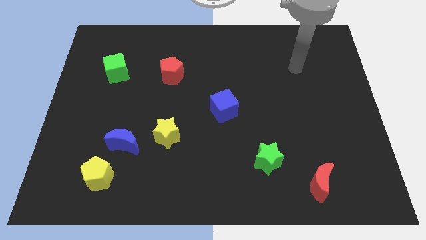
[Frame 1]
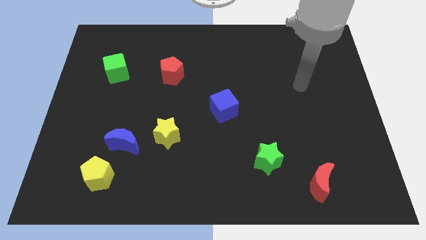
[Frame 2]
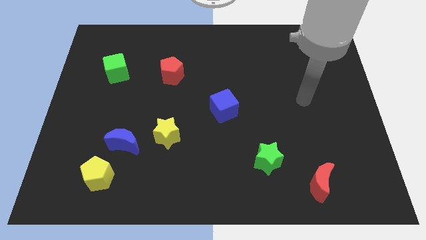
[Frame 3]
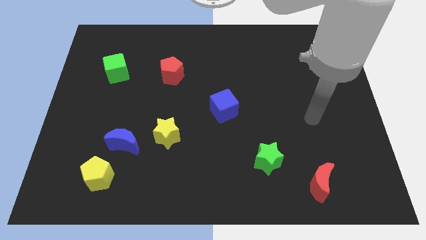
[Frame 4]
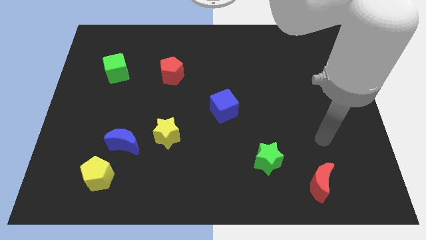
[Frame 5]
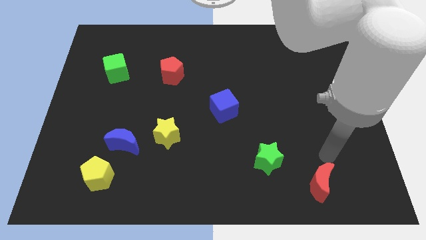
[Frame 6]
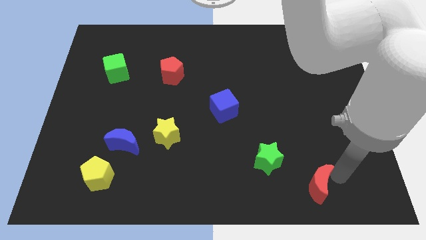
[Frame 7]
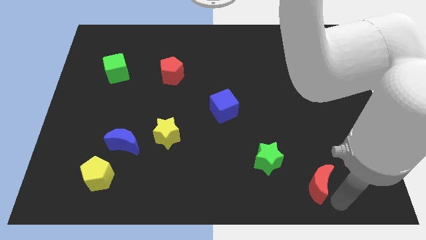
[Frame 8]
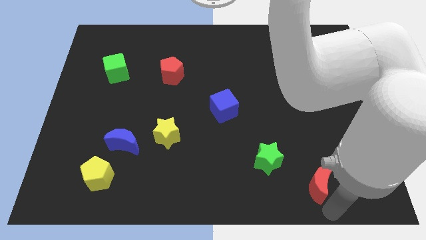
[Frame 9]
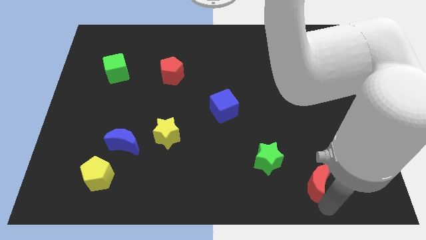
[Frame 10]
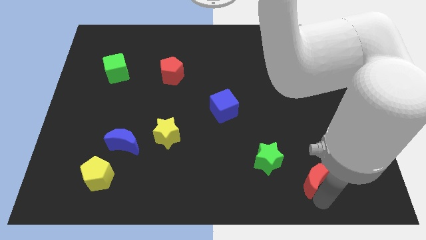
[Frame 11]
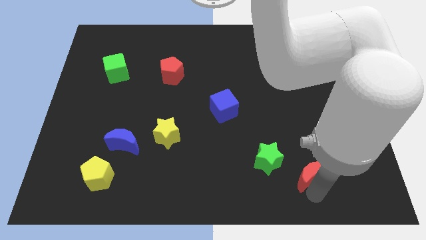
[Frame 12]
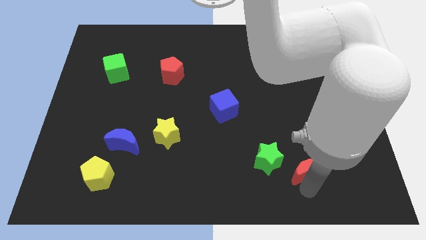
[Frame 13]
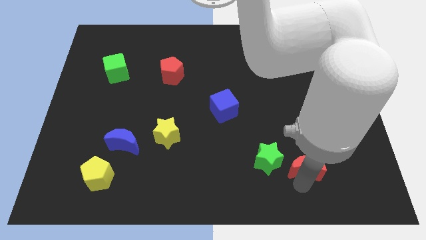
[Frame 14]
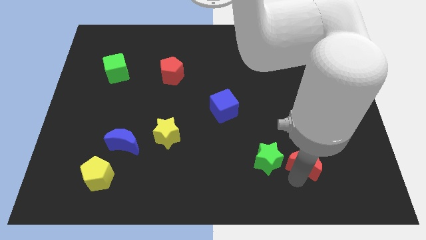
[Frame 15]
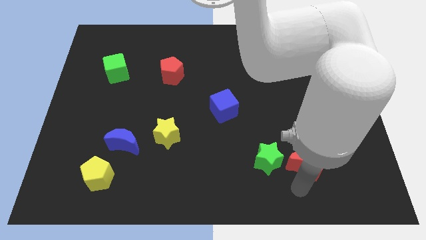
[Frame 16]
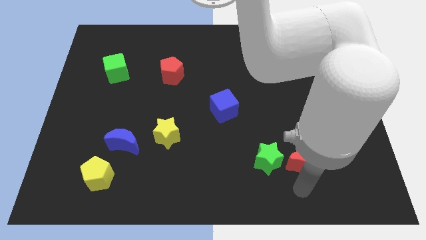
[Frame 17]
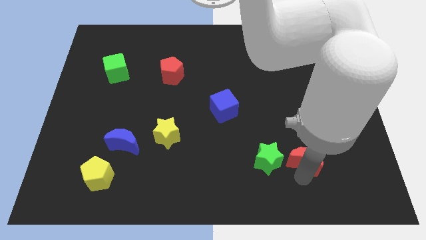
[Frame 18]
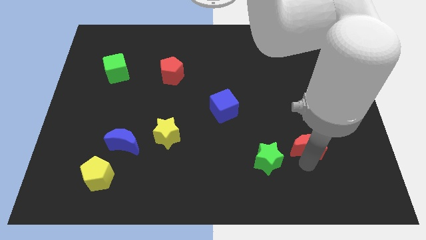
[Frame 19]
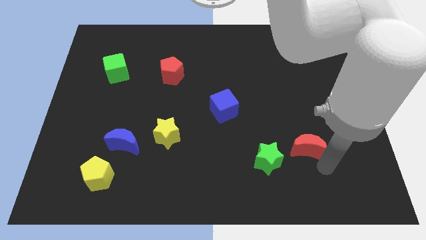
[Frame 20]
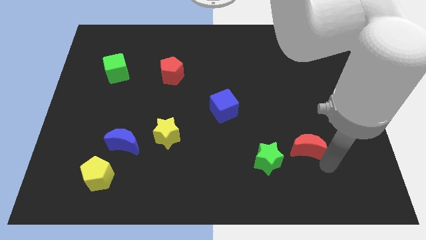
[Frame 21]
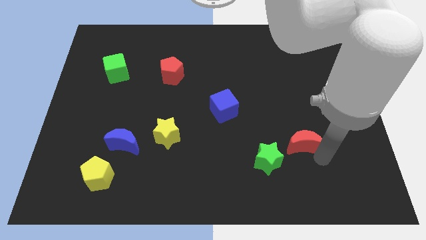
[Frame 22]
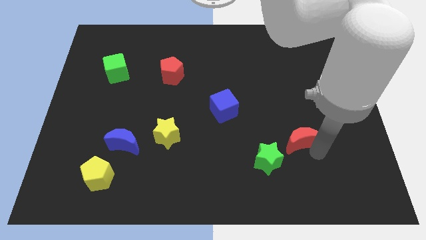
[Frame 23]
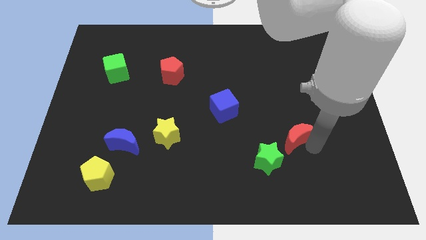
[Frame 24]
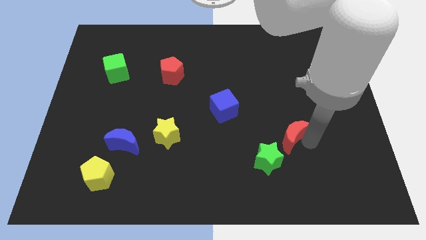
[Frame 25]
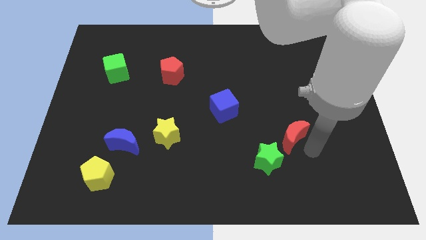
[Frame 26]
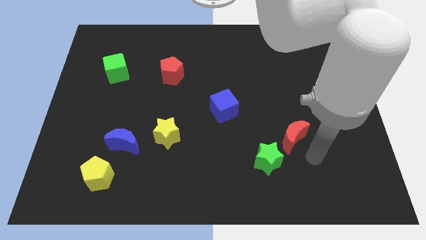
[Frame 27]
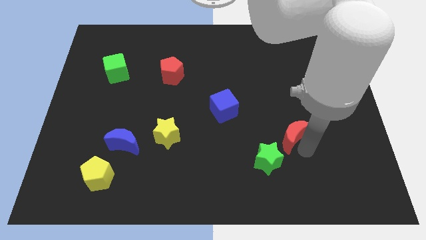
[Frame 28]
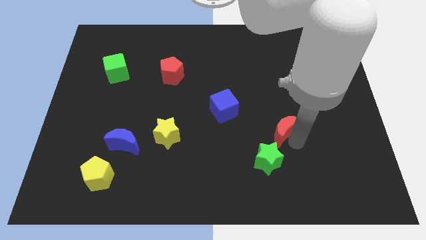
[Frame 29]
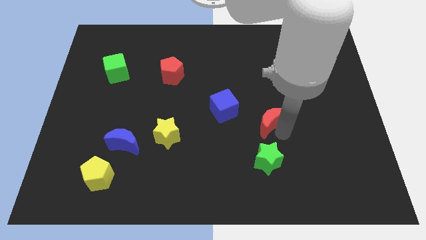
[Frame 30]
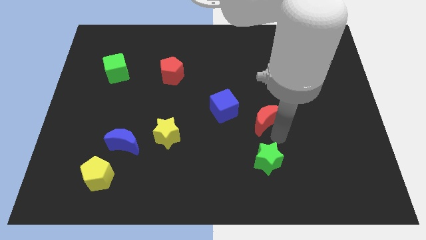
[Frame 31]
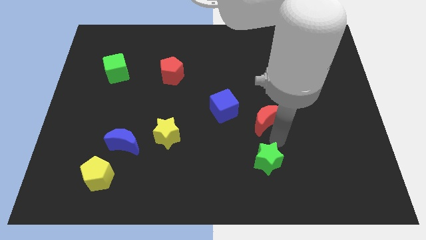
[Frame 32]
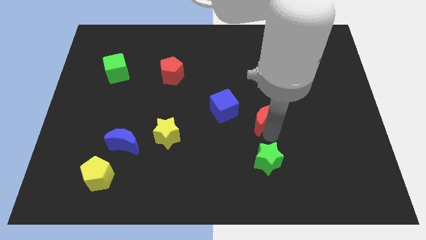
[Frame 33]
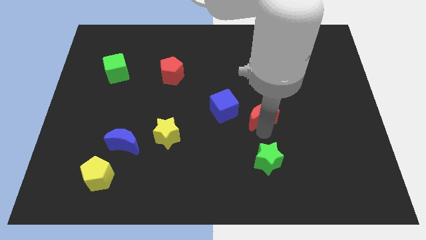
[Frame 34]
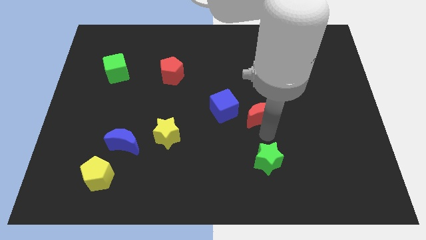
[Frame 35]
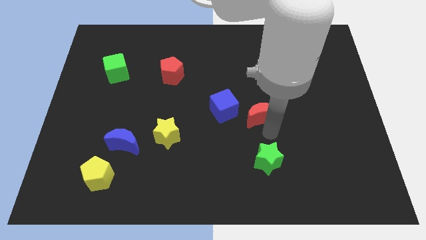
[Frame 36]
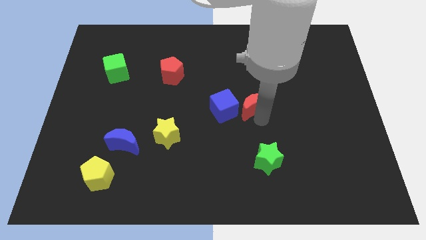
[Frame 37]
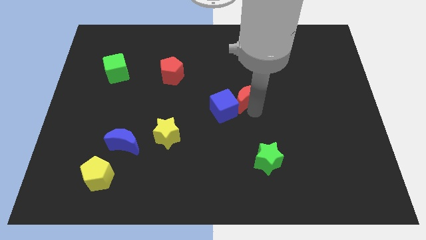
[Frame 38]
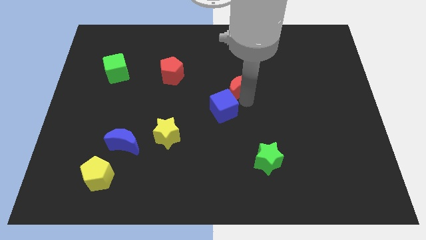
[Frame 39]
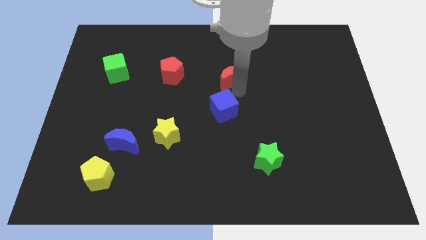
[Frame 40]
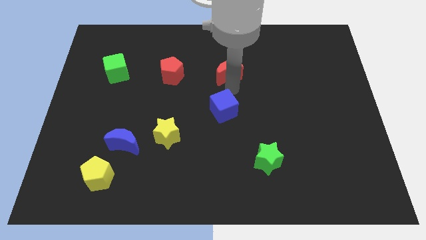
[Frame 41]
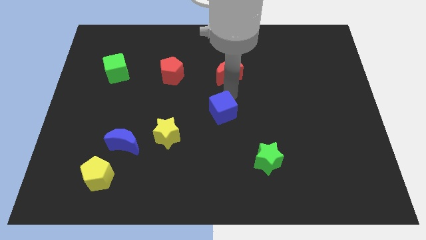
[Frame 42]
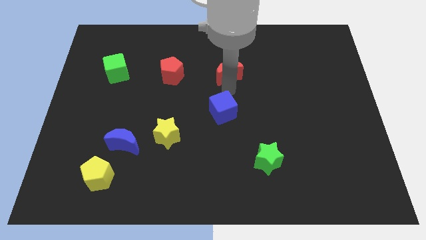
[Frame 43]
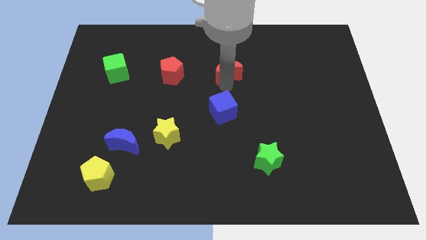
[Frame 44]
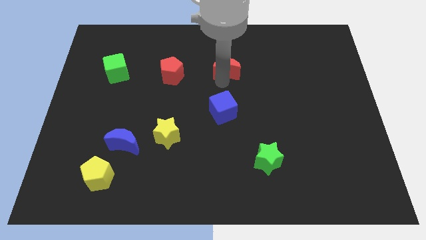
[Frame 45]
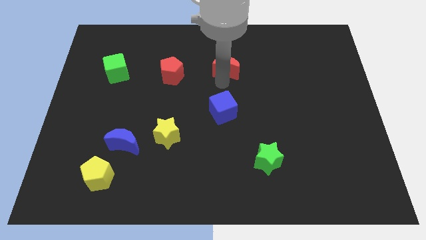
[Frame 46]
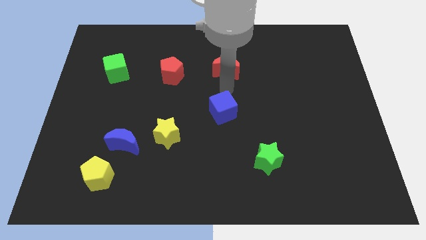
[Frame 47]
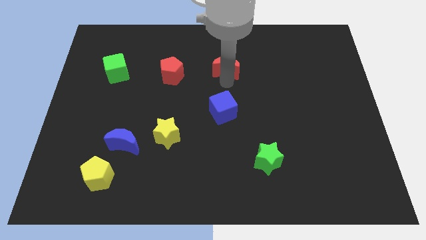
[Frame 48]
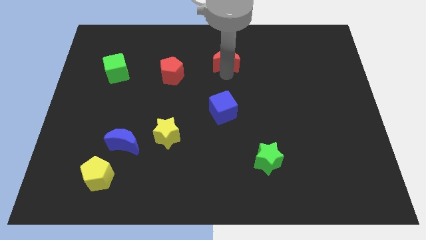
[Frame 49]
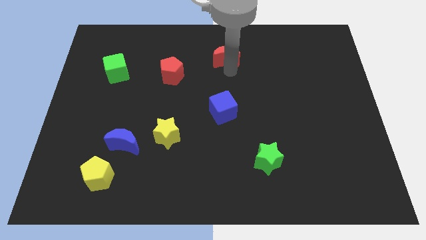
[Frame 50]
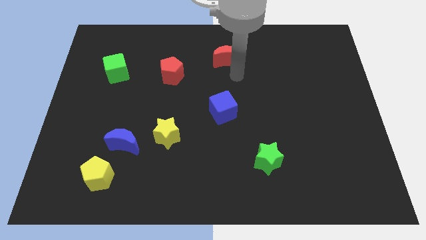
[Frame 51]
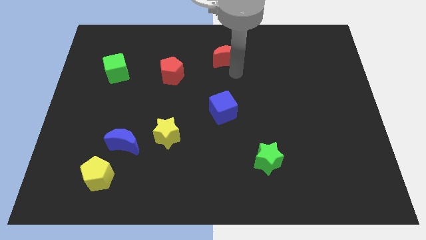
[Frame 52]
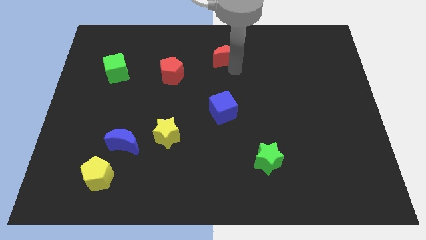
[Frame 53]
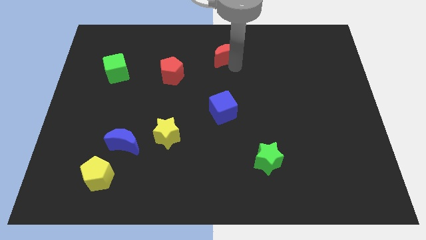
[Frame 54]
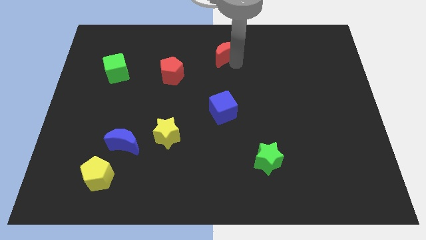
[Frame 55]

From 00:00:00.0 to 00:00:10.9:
slide the red moon to the towards your base

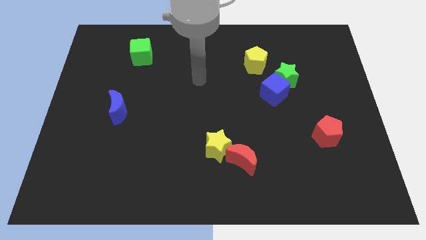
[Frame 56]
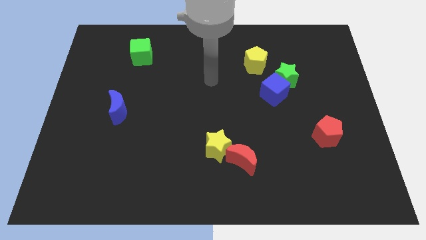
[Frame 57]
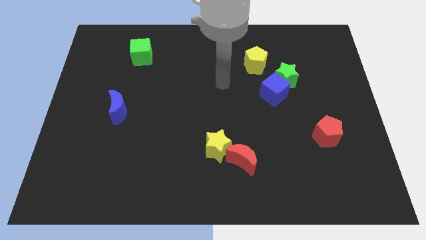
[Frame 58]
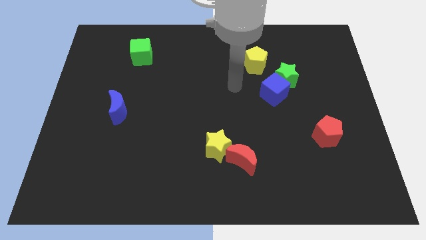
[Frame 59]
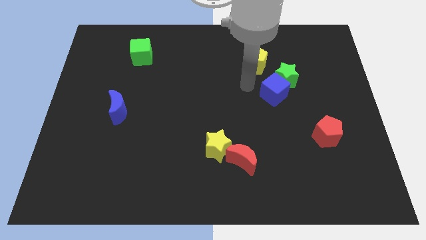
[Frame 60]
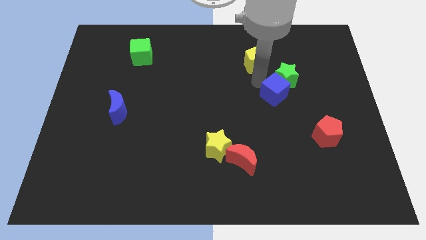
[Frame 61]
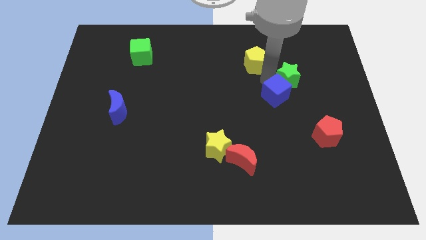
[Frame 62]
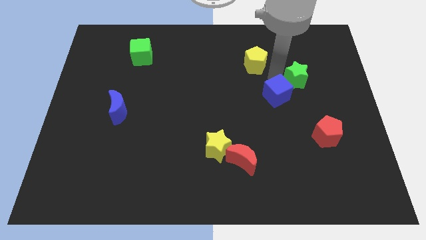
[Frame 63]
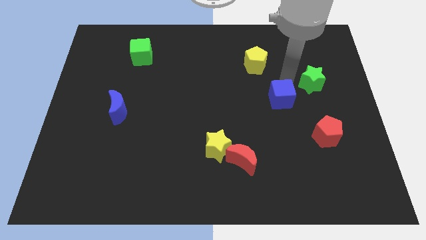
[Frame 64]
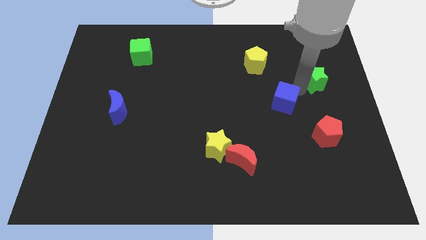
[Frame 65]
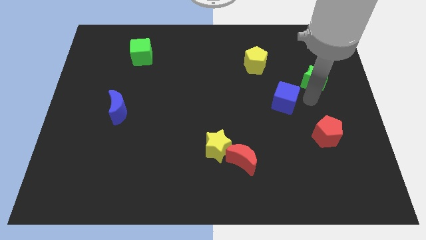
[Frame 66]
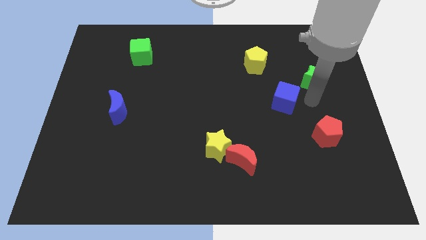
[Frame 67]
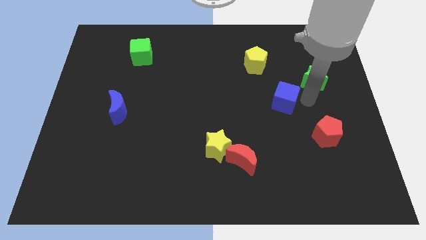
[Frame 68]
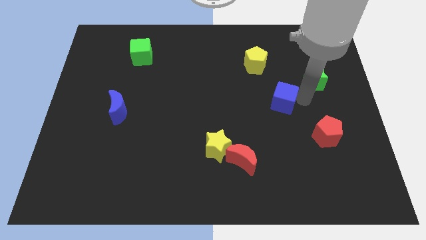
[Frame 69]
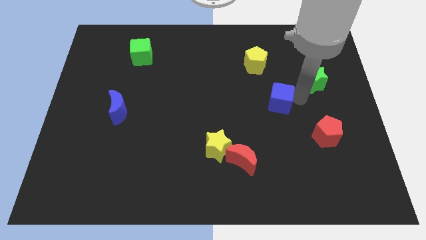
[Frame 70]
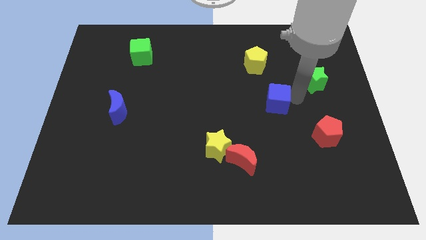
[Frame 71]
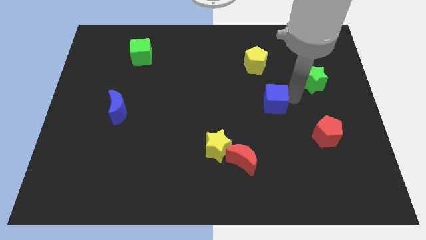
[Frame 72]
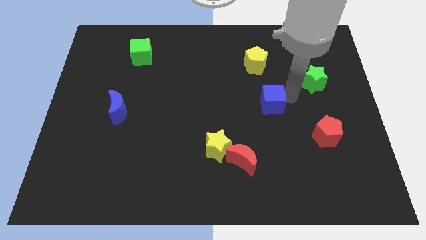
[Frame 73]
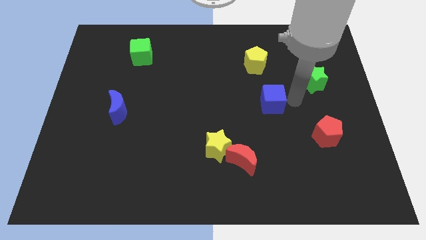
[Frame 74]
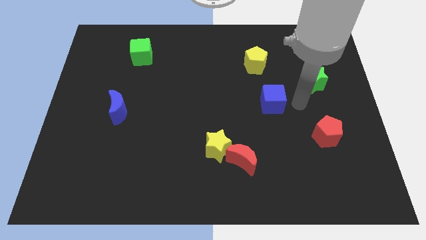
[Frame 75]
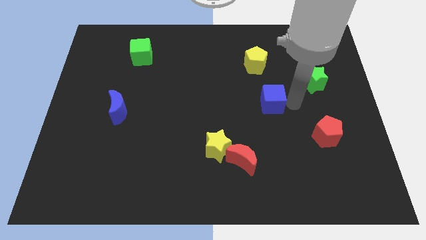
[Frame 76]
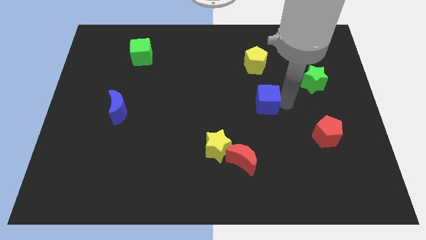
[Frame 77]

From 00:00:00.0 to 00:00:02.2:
push the blue cube to the middle
